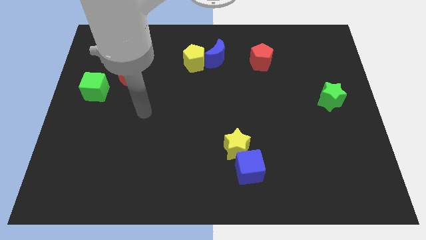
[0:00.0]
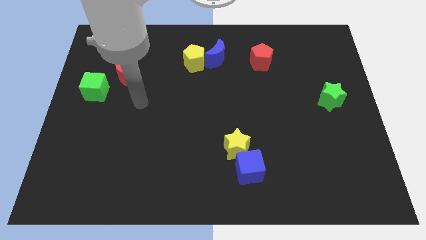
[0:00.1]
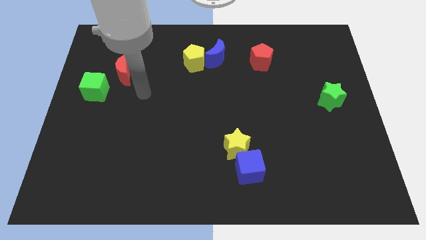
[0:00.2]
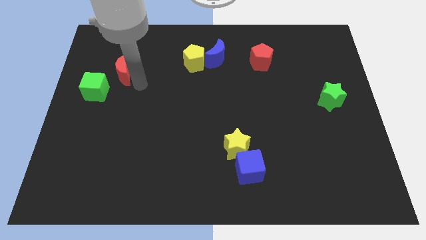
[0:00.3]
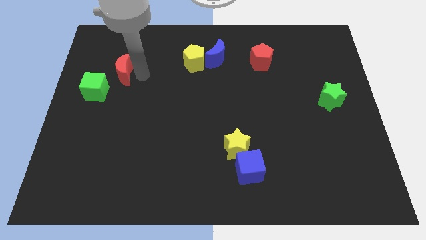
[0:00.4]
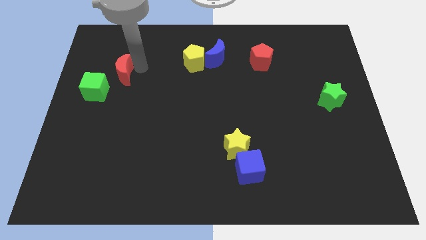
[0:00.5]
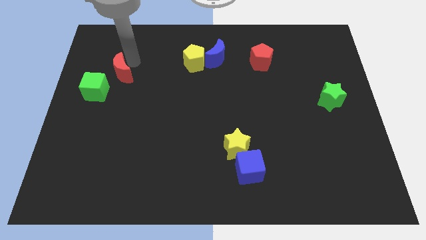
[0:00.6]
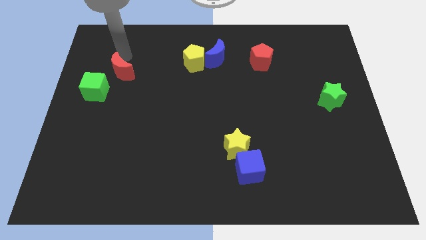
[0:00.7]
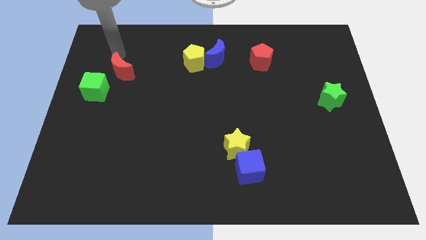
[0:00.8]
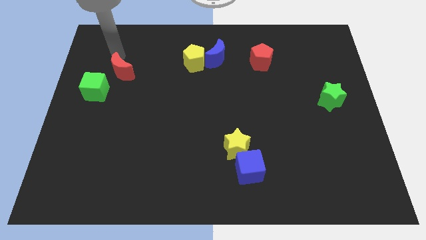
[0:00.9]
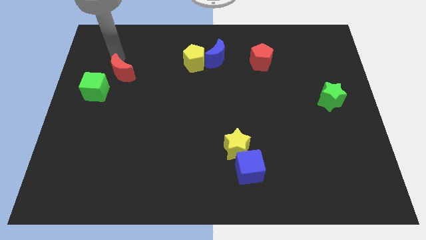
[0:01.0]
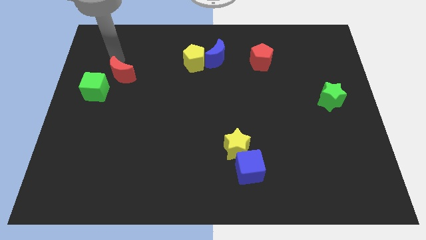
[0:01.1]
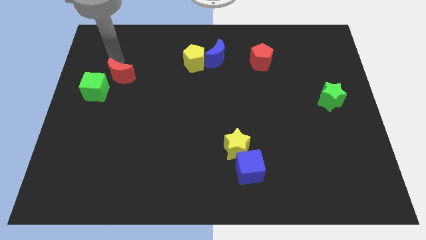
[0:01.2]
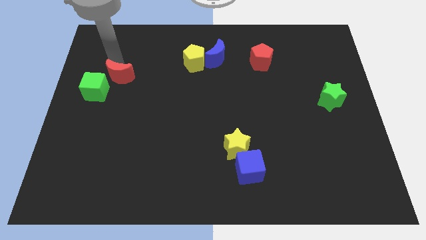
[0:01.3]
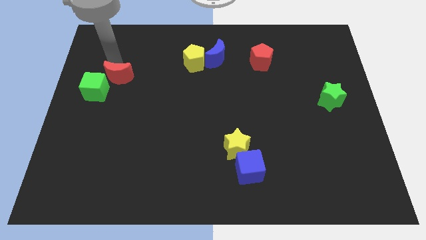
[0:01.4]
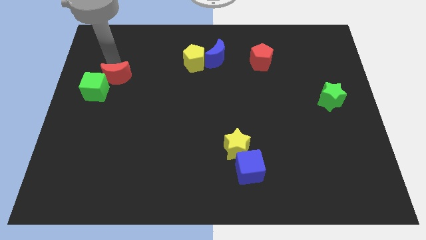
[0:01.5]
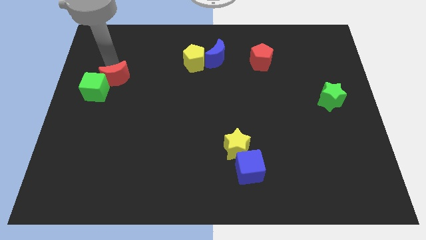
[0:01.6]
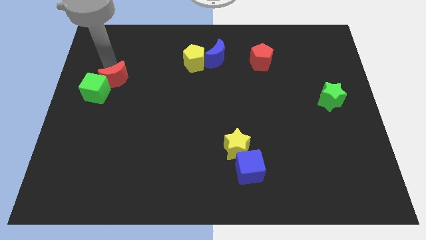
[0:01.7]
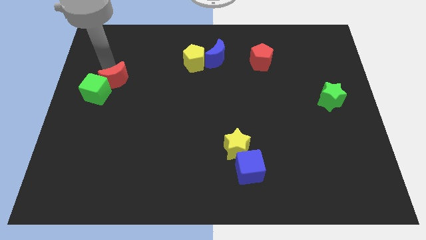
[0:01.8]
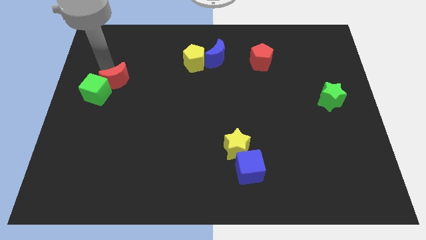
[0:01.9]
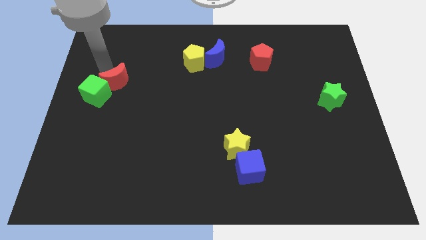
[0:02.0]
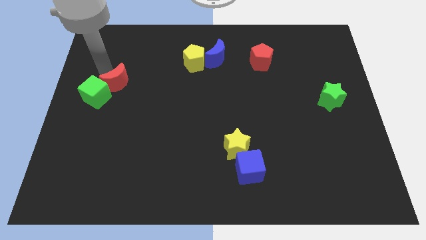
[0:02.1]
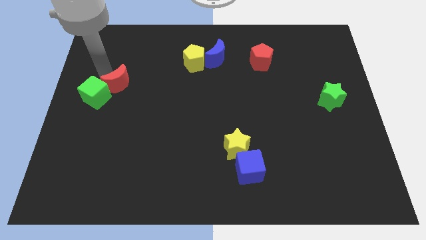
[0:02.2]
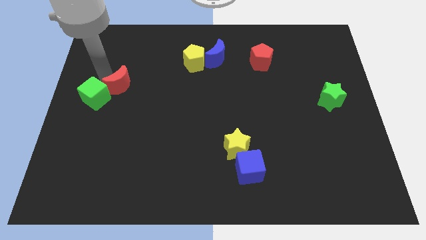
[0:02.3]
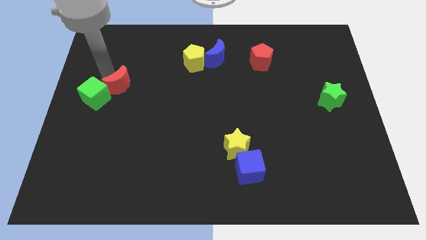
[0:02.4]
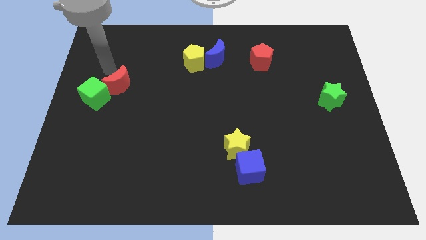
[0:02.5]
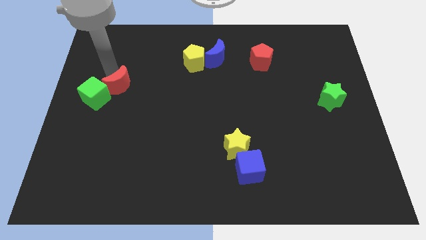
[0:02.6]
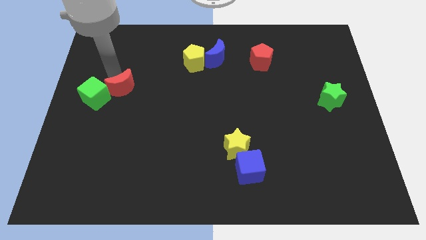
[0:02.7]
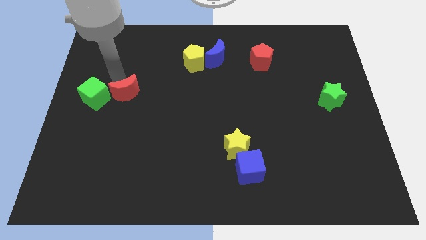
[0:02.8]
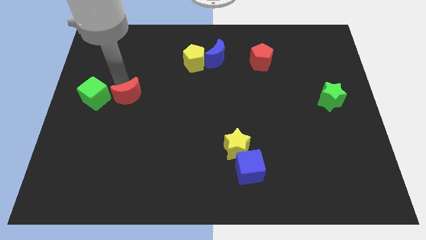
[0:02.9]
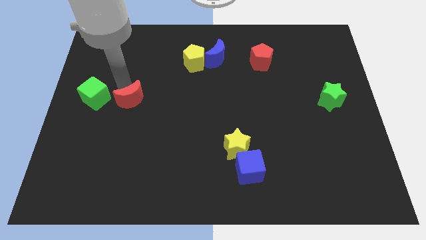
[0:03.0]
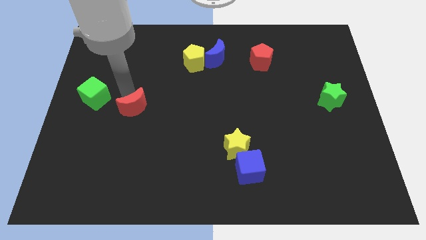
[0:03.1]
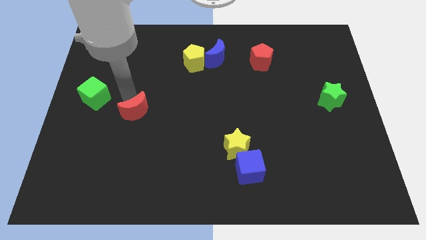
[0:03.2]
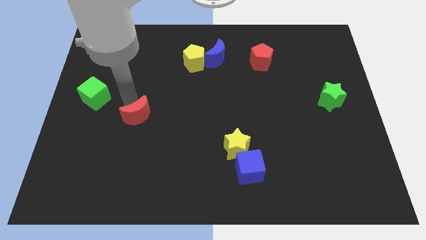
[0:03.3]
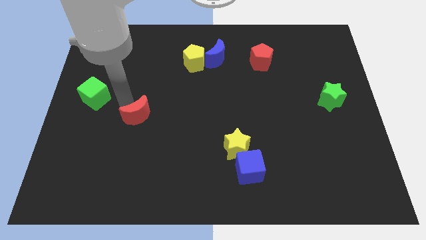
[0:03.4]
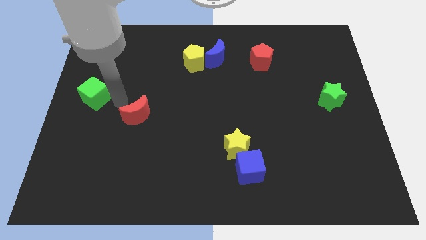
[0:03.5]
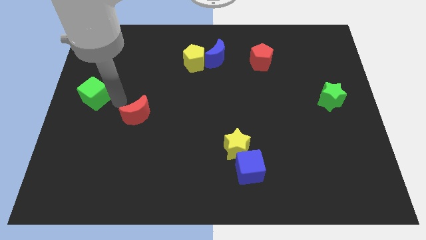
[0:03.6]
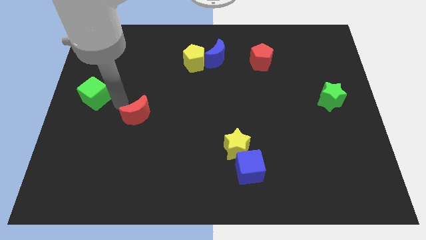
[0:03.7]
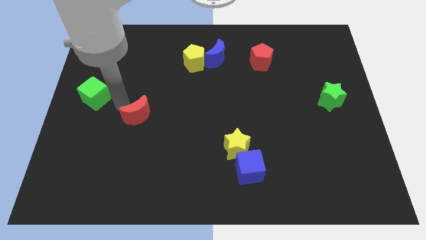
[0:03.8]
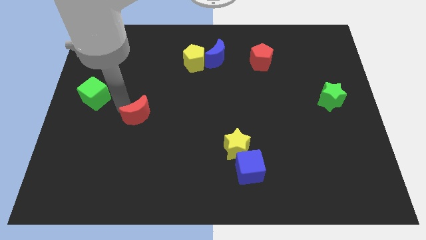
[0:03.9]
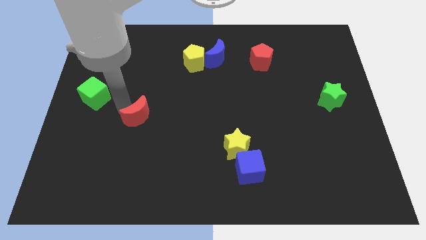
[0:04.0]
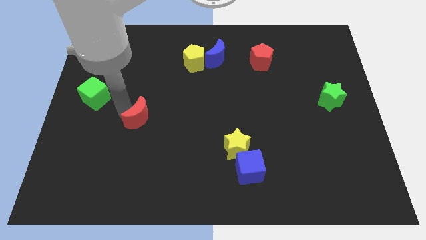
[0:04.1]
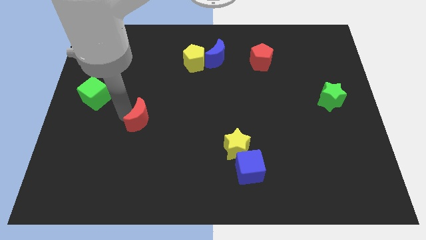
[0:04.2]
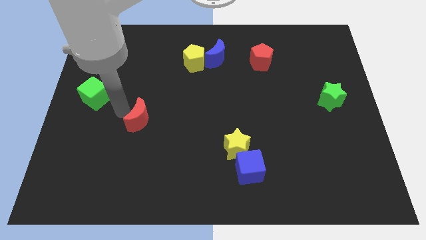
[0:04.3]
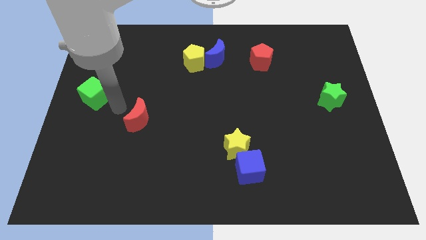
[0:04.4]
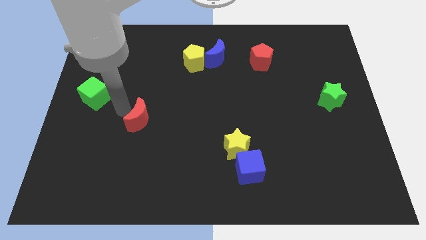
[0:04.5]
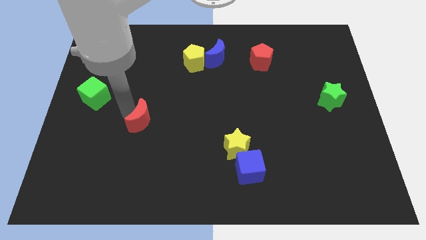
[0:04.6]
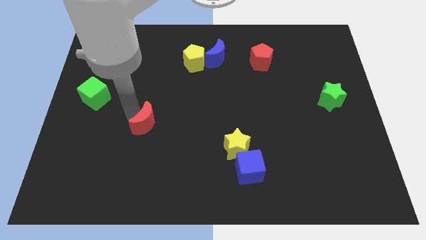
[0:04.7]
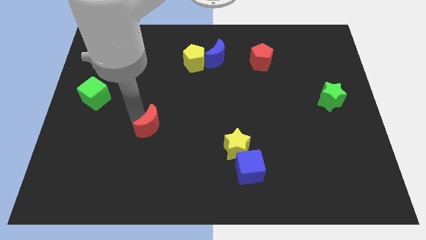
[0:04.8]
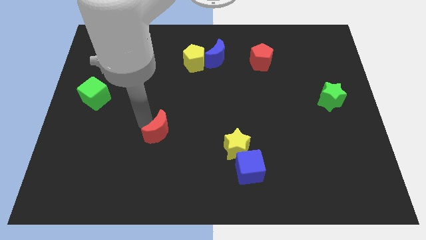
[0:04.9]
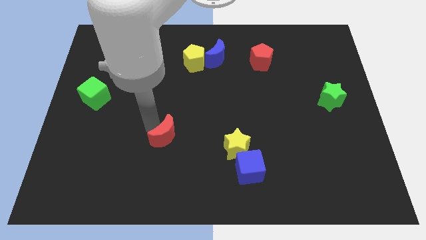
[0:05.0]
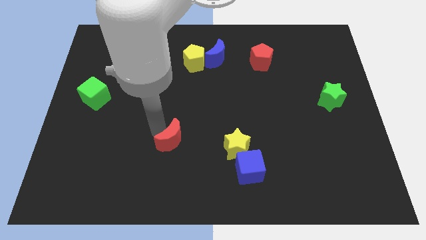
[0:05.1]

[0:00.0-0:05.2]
put the red moon to the left side of the yellow star

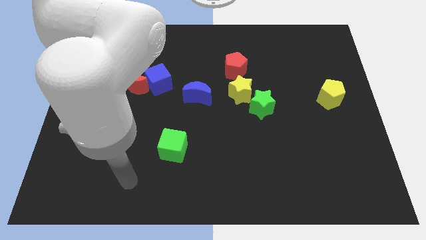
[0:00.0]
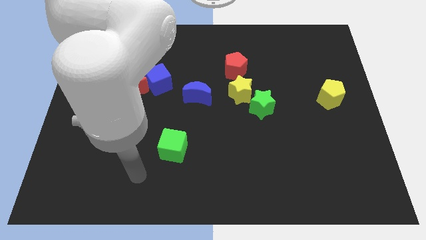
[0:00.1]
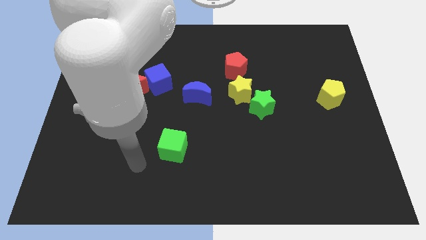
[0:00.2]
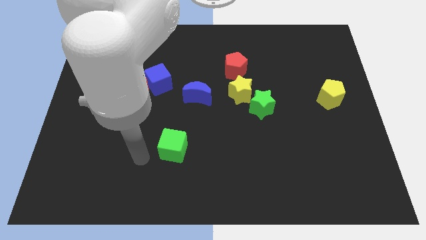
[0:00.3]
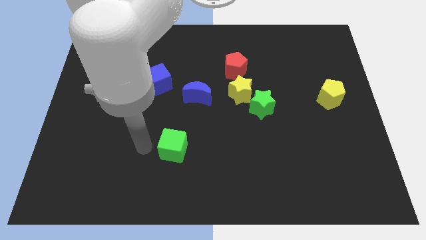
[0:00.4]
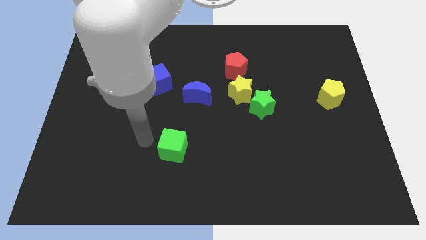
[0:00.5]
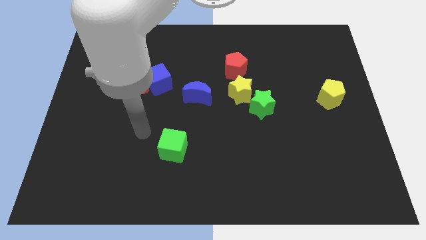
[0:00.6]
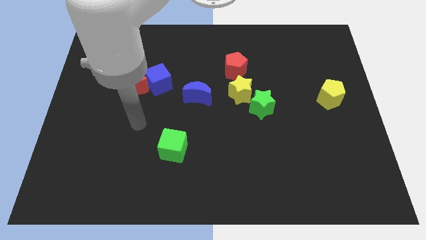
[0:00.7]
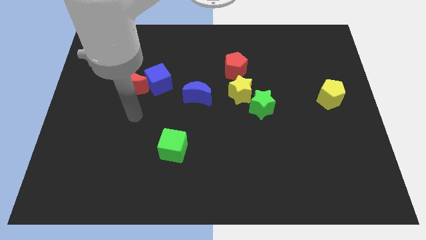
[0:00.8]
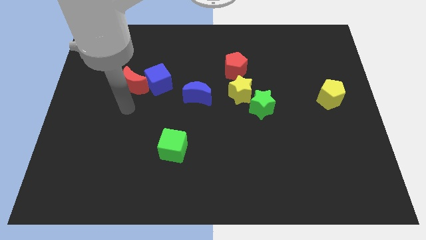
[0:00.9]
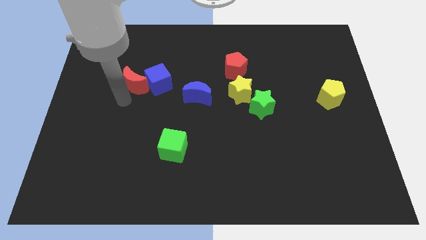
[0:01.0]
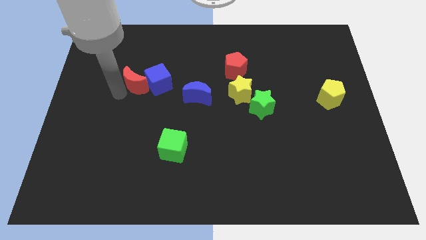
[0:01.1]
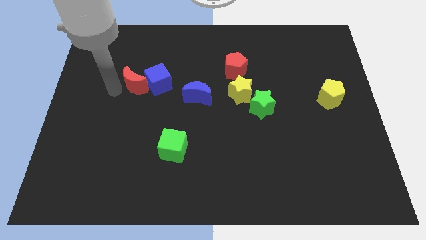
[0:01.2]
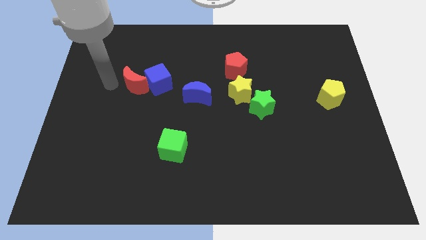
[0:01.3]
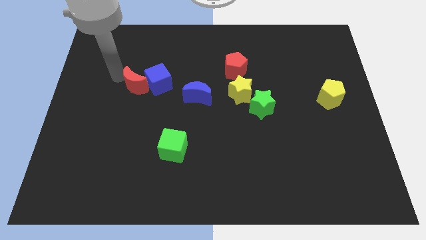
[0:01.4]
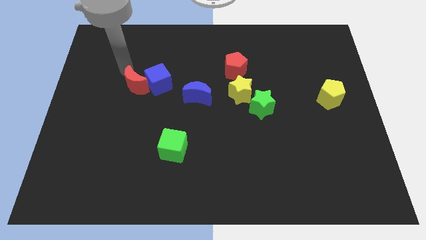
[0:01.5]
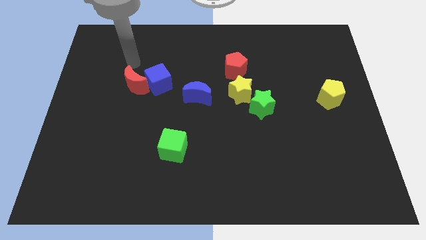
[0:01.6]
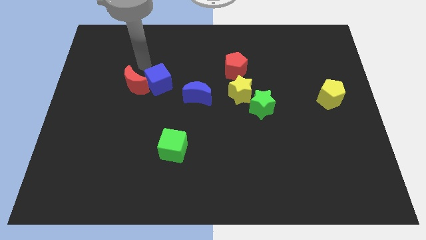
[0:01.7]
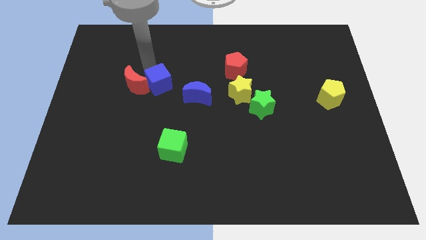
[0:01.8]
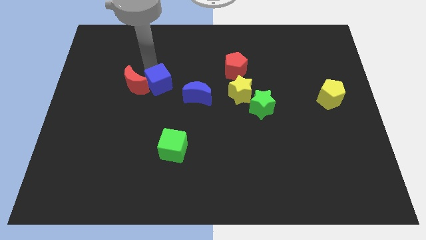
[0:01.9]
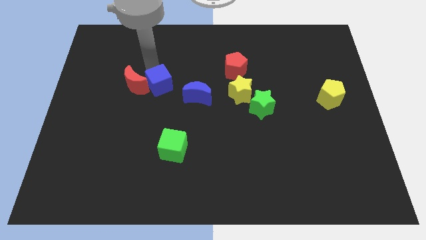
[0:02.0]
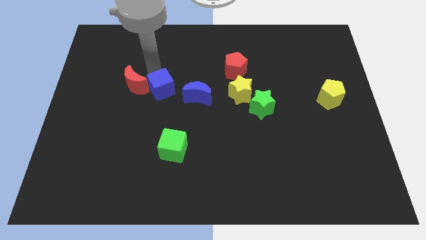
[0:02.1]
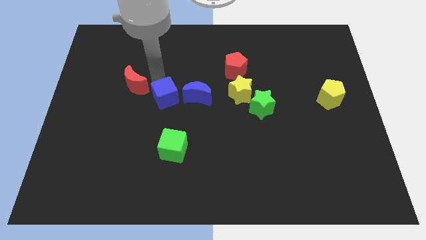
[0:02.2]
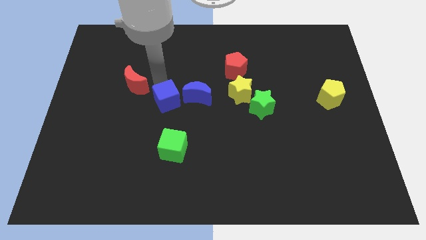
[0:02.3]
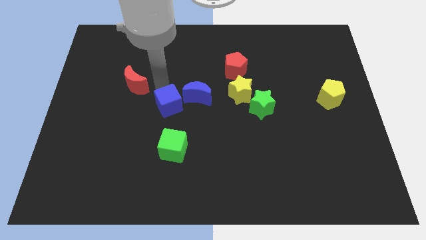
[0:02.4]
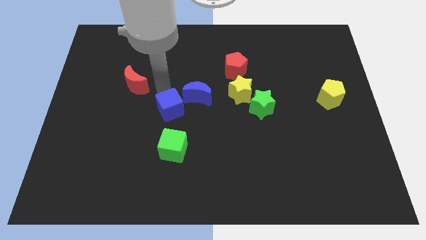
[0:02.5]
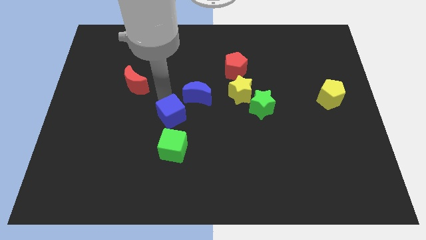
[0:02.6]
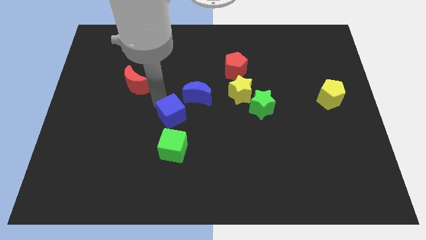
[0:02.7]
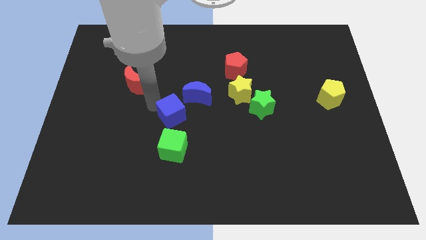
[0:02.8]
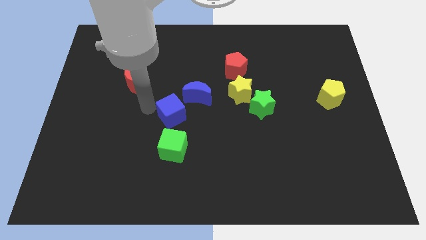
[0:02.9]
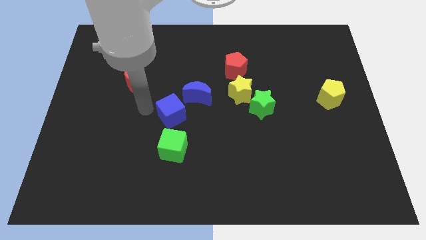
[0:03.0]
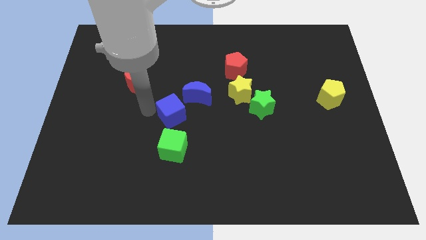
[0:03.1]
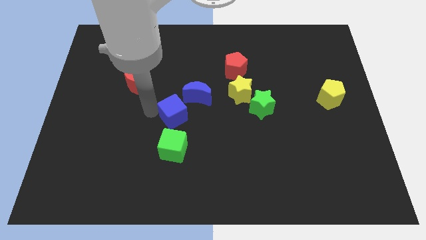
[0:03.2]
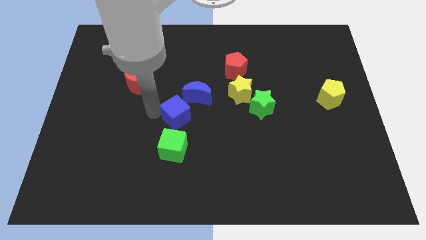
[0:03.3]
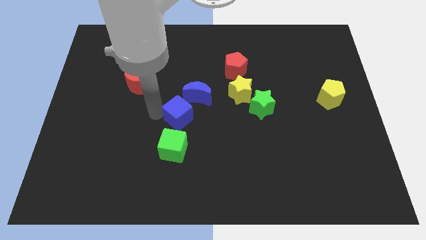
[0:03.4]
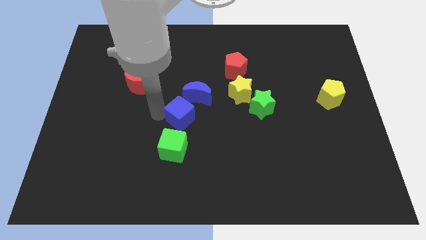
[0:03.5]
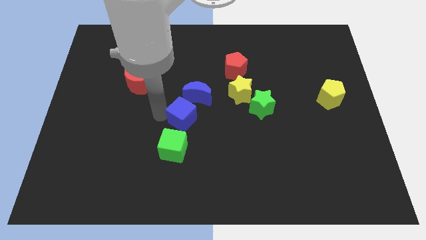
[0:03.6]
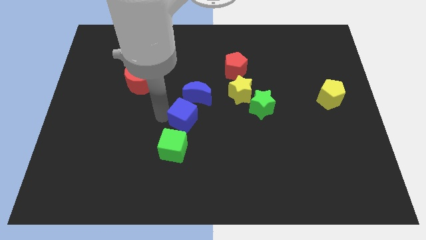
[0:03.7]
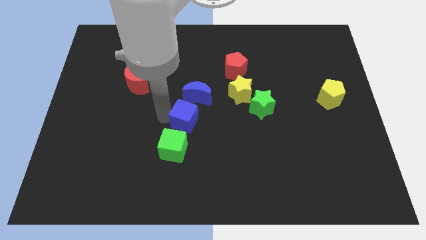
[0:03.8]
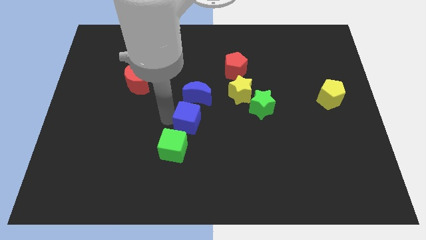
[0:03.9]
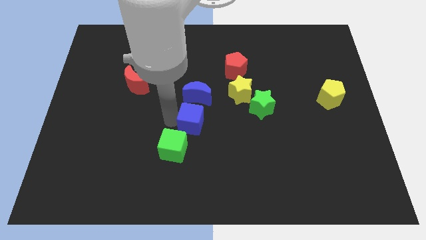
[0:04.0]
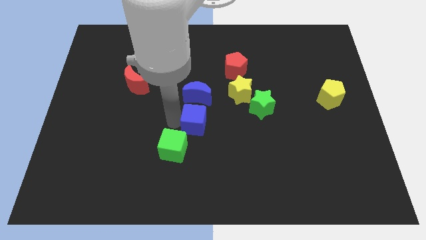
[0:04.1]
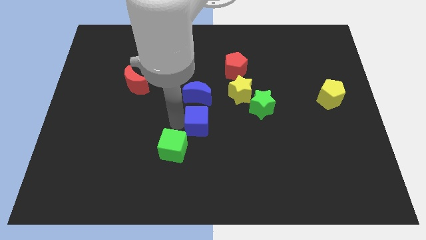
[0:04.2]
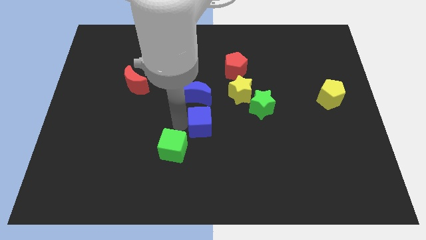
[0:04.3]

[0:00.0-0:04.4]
slide the blue cube to the bottom left of the yellow star
